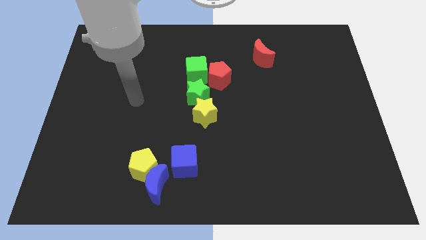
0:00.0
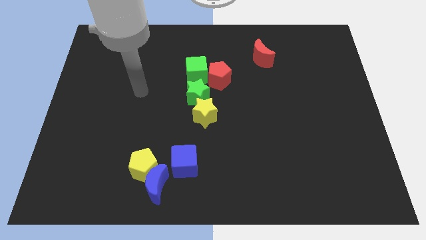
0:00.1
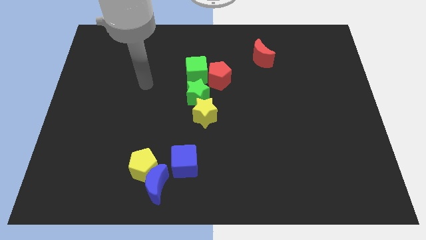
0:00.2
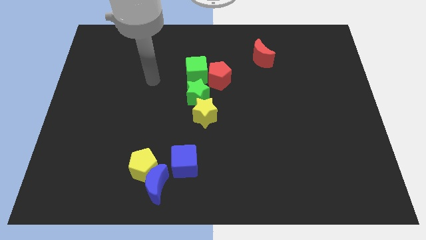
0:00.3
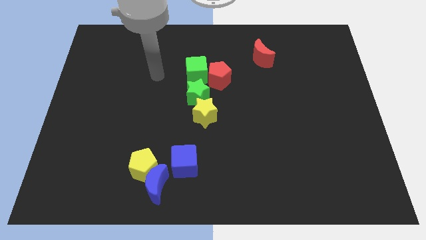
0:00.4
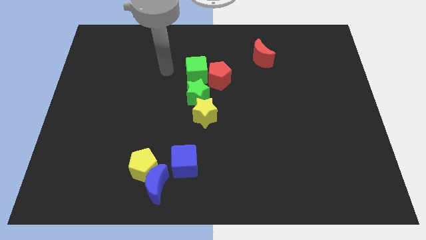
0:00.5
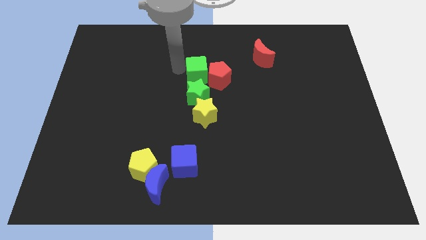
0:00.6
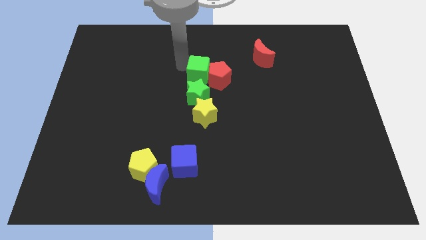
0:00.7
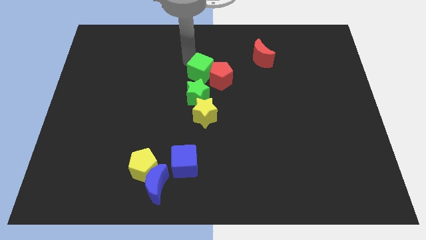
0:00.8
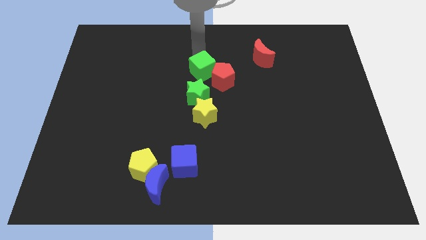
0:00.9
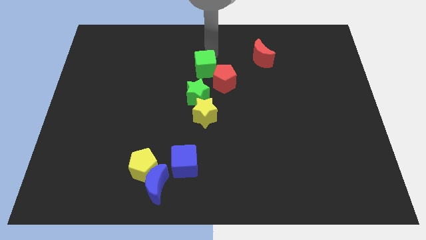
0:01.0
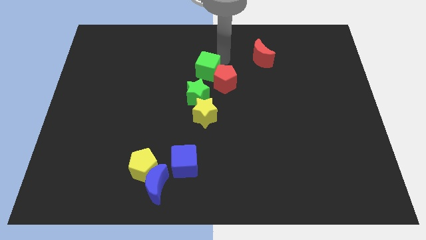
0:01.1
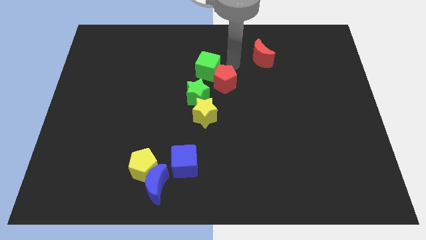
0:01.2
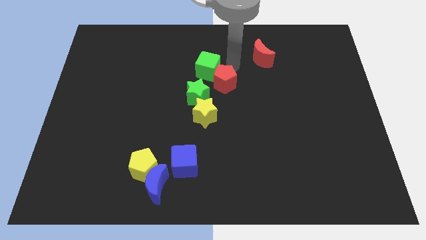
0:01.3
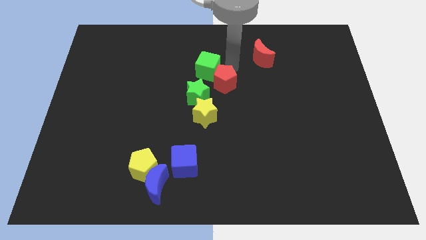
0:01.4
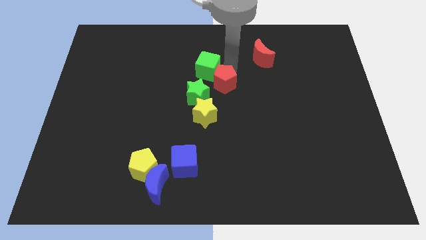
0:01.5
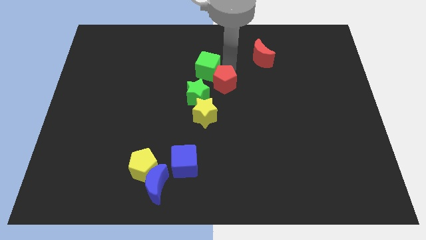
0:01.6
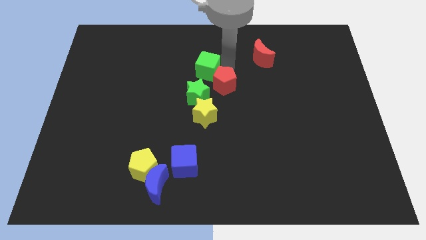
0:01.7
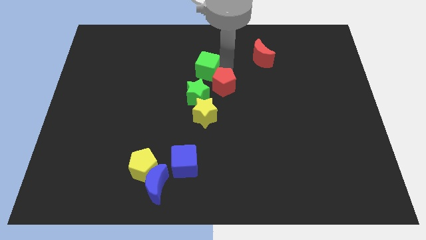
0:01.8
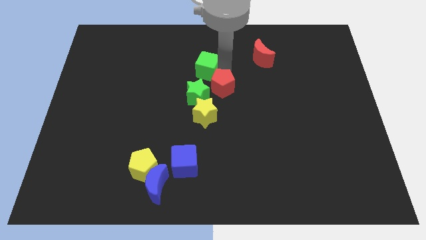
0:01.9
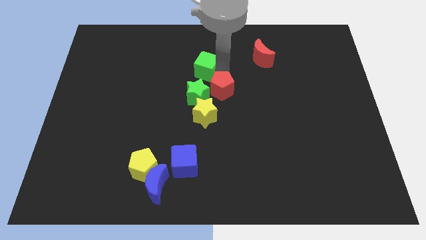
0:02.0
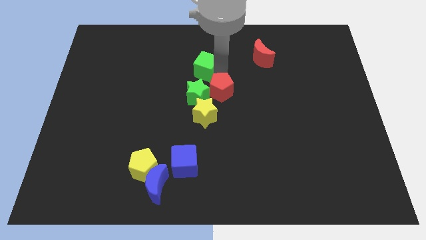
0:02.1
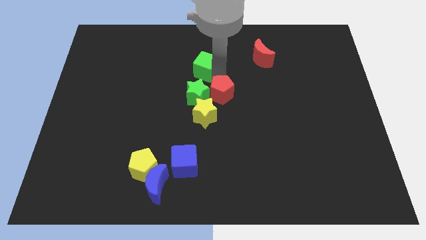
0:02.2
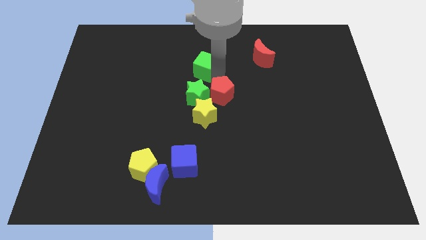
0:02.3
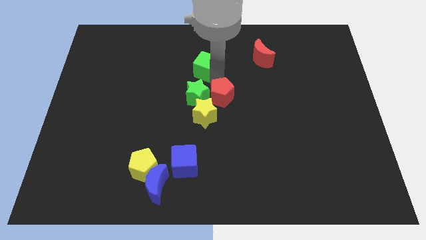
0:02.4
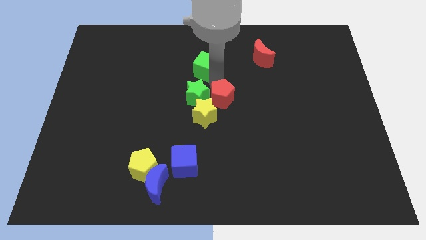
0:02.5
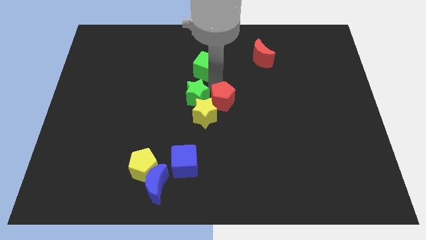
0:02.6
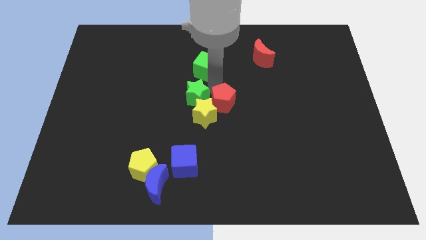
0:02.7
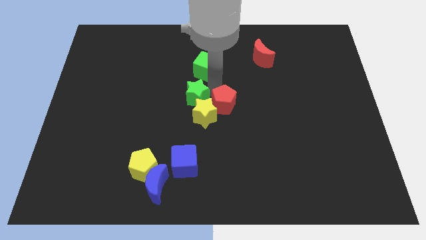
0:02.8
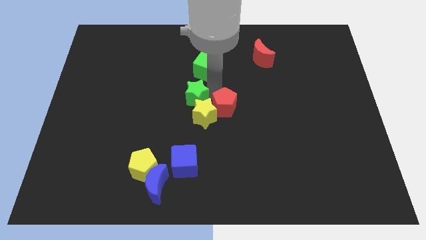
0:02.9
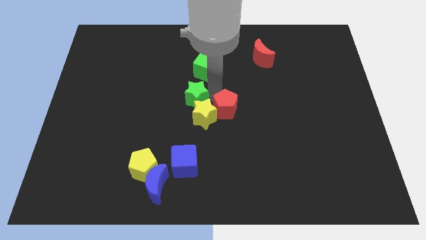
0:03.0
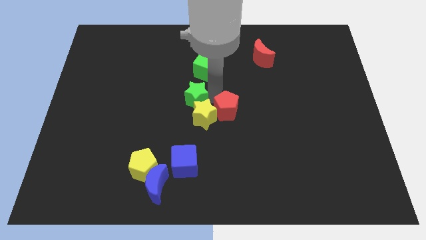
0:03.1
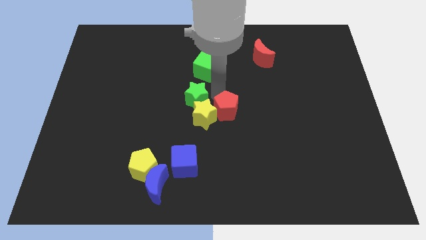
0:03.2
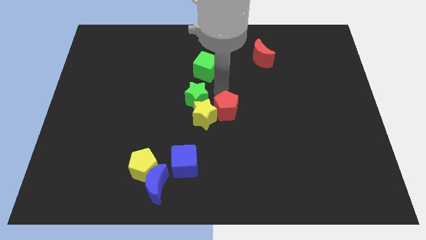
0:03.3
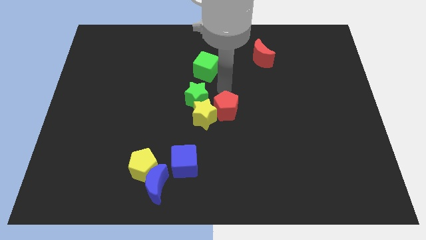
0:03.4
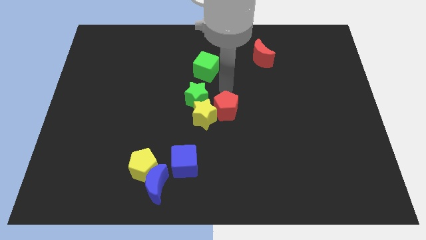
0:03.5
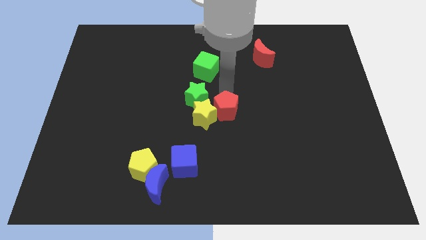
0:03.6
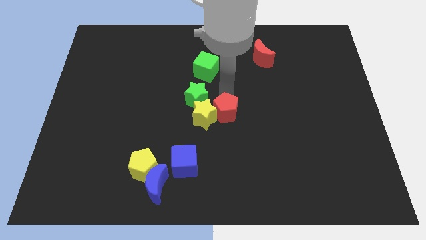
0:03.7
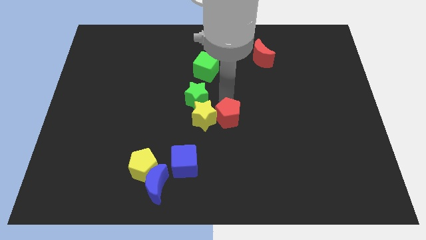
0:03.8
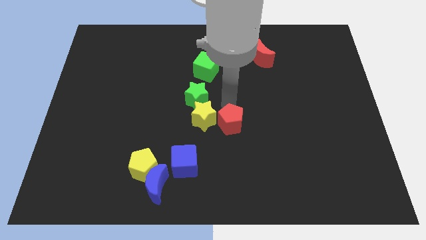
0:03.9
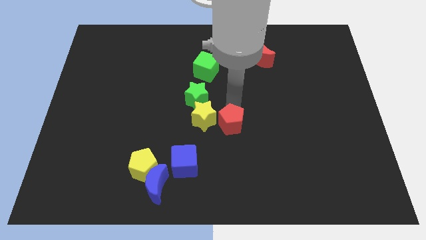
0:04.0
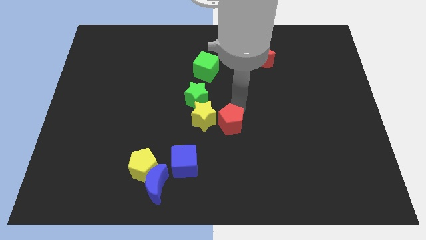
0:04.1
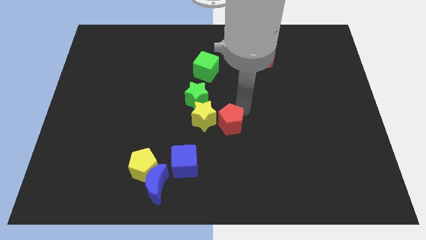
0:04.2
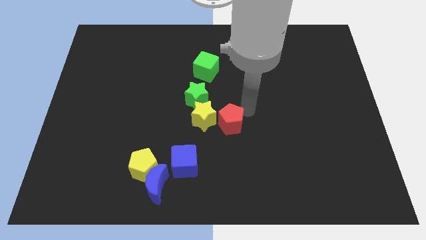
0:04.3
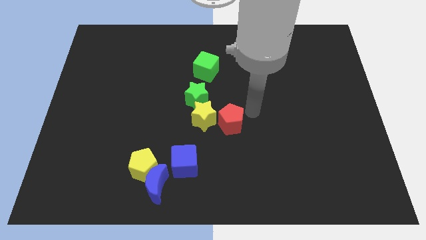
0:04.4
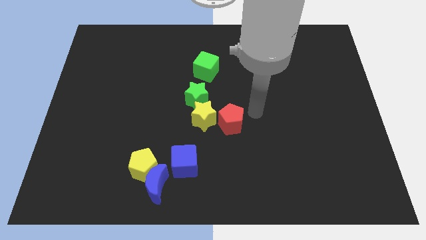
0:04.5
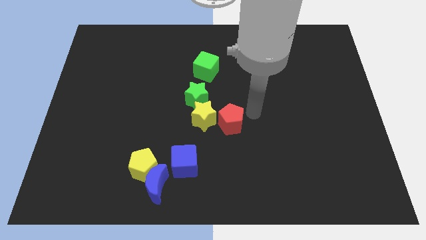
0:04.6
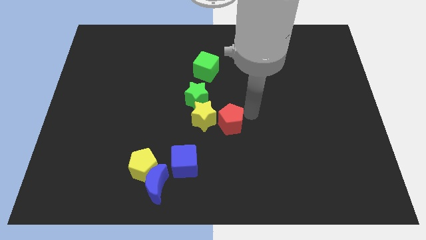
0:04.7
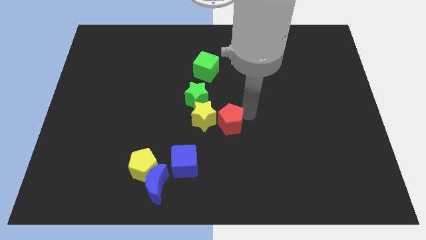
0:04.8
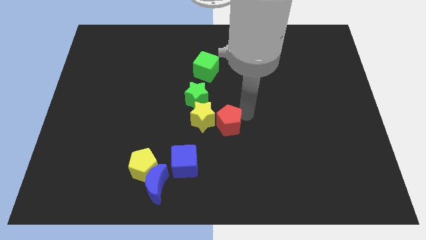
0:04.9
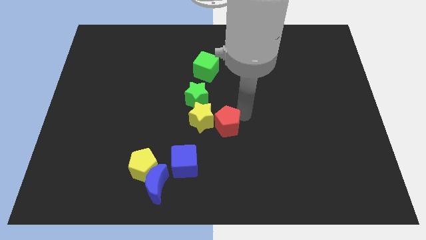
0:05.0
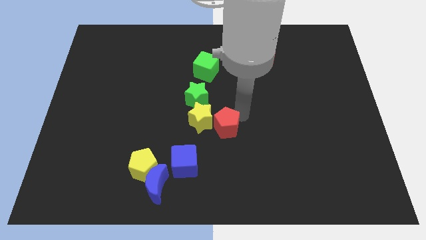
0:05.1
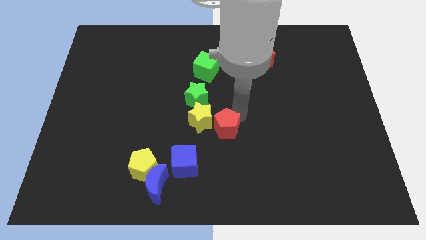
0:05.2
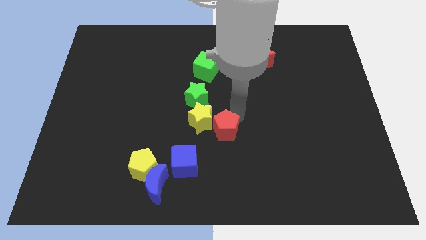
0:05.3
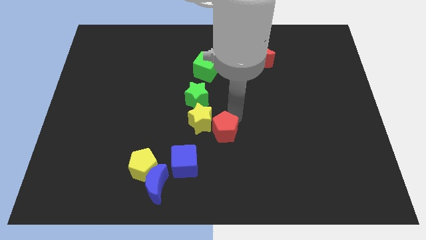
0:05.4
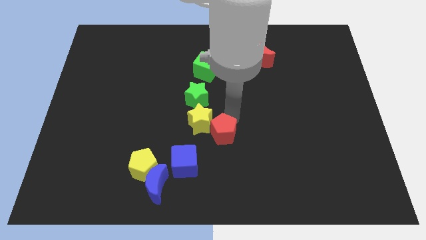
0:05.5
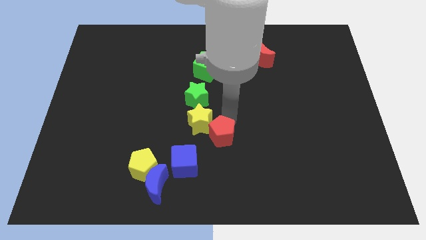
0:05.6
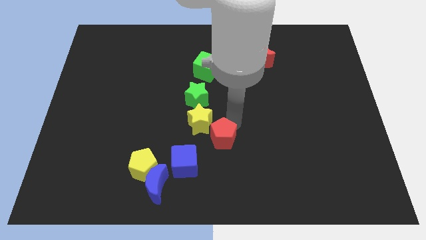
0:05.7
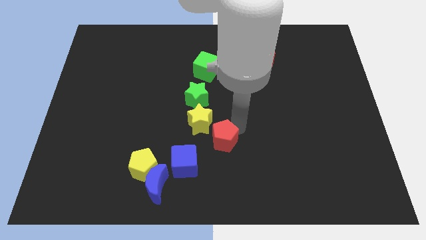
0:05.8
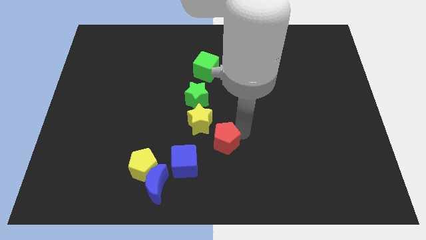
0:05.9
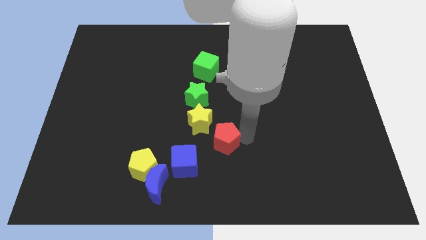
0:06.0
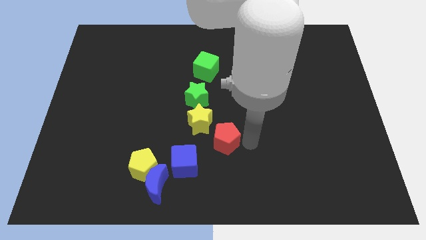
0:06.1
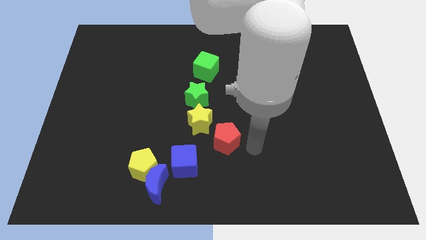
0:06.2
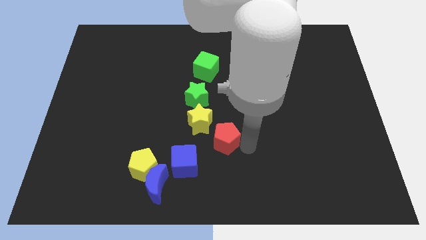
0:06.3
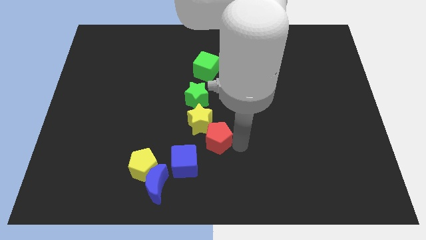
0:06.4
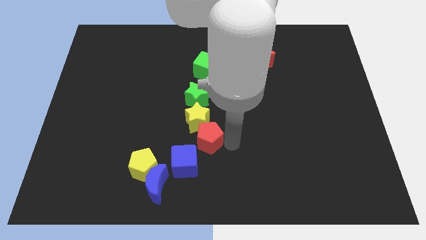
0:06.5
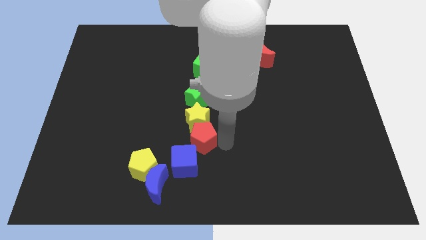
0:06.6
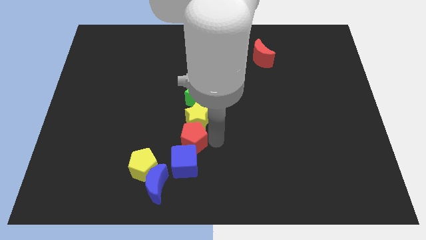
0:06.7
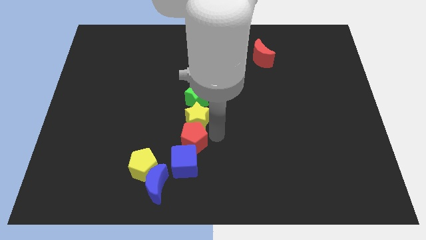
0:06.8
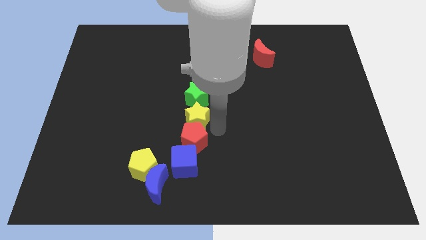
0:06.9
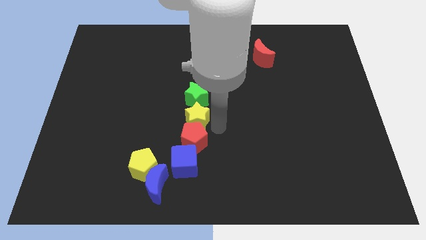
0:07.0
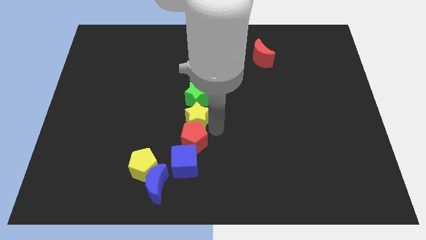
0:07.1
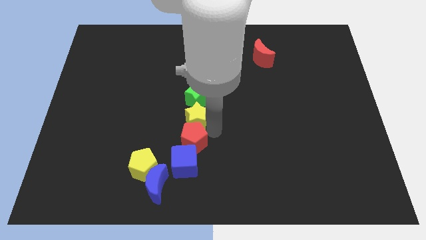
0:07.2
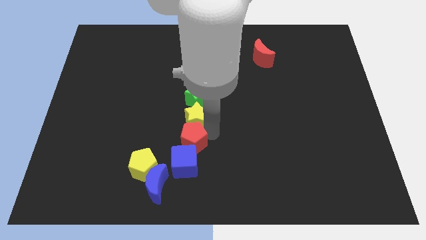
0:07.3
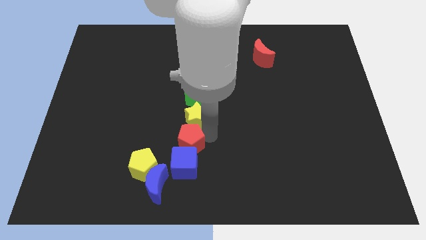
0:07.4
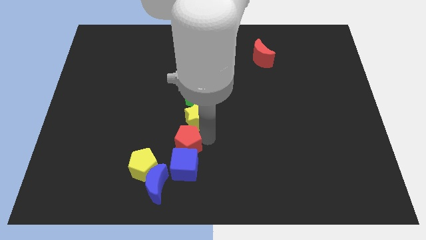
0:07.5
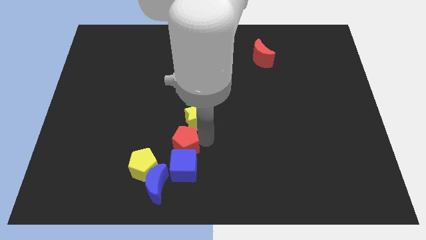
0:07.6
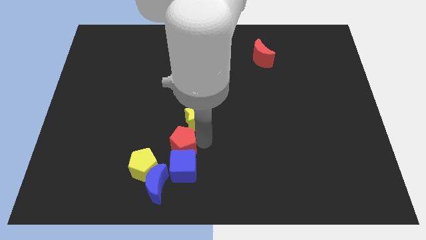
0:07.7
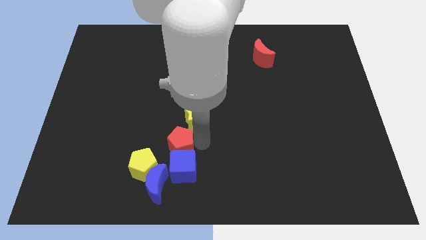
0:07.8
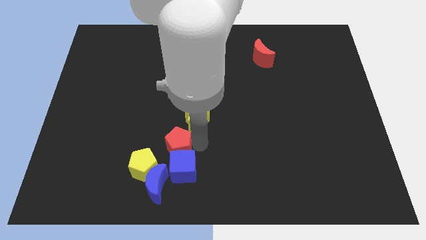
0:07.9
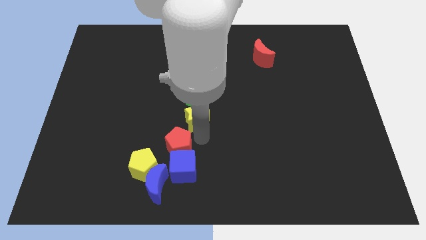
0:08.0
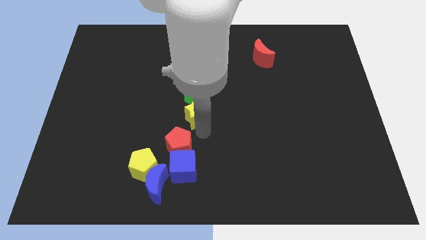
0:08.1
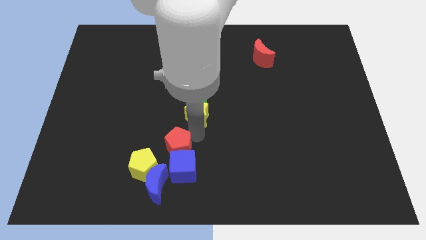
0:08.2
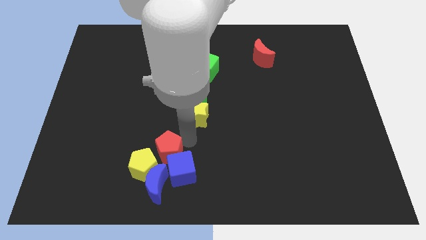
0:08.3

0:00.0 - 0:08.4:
move the red pentagon close to the yellow pentagon
